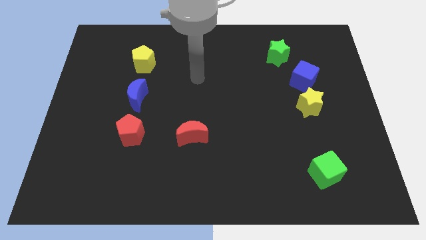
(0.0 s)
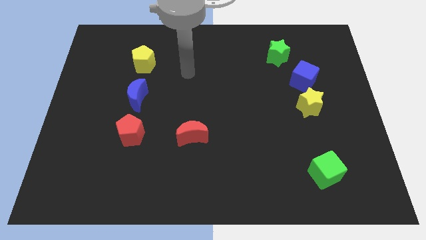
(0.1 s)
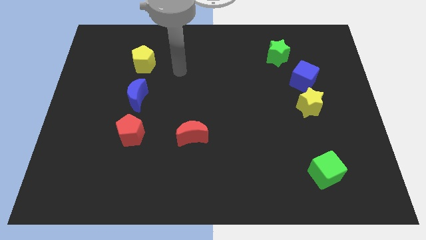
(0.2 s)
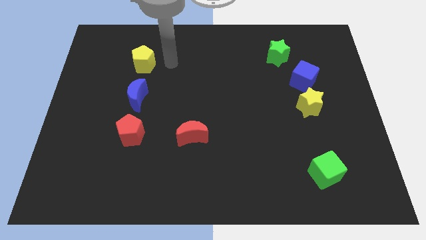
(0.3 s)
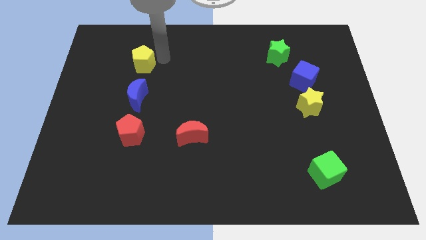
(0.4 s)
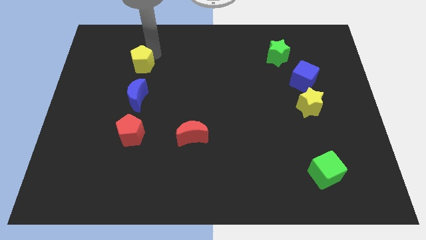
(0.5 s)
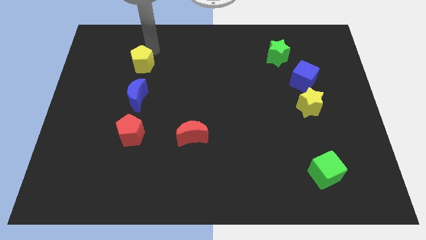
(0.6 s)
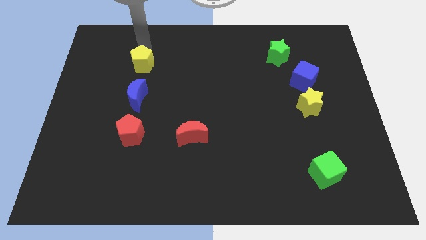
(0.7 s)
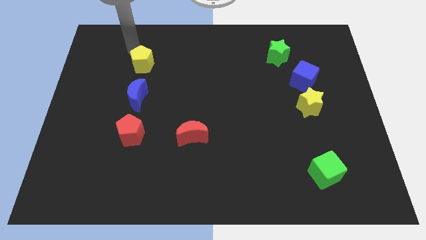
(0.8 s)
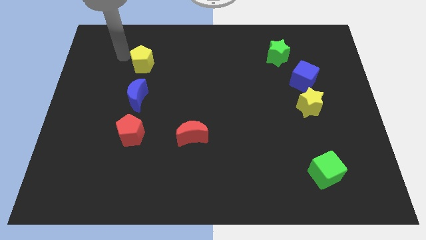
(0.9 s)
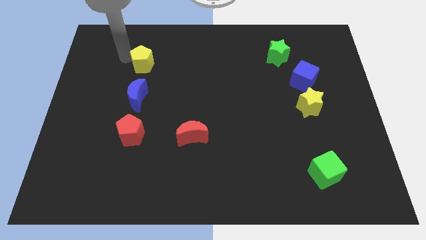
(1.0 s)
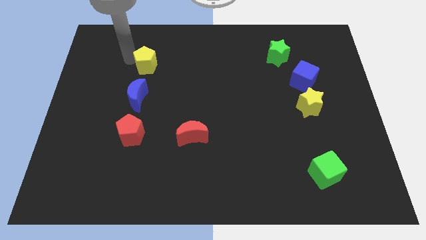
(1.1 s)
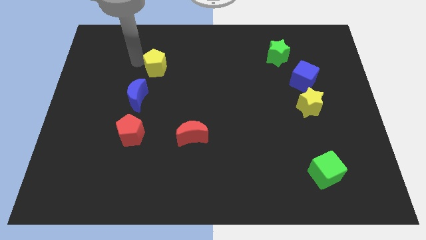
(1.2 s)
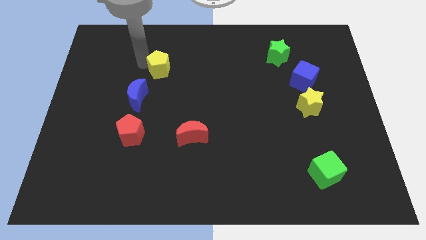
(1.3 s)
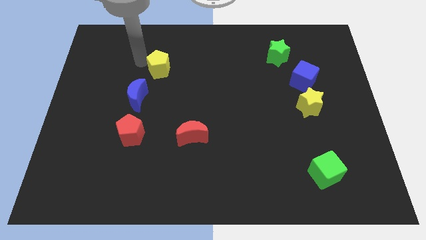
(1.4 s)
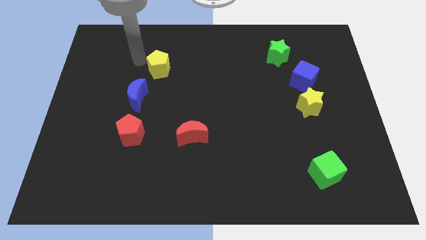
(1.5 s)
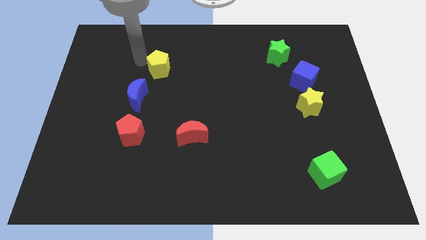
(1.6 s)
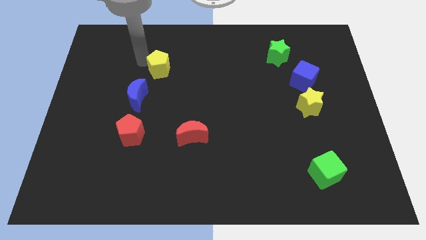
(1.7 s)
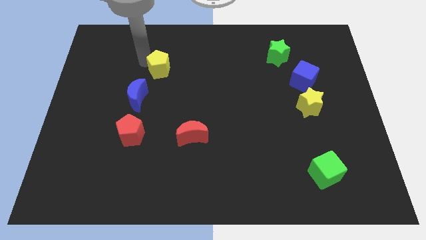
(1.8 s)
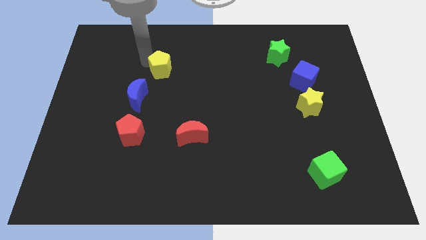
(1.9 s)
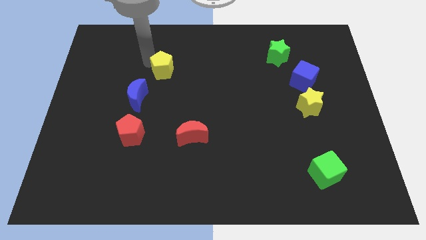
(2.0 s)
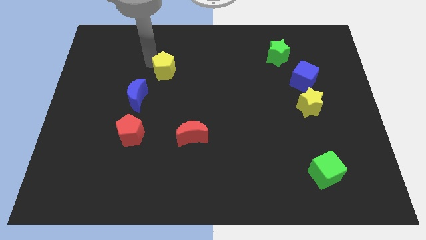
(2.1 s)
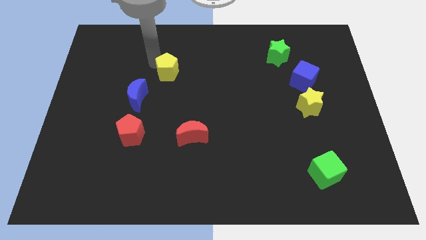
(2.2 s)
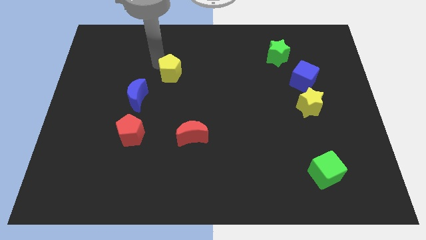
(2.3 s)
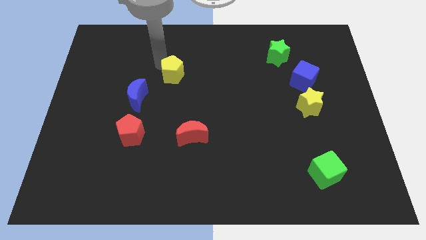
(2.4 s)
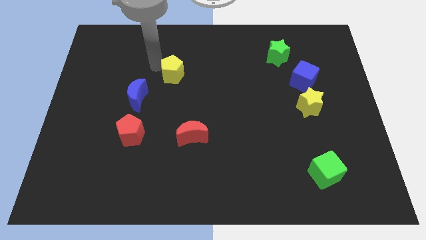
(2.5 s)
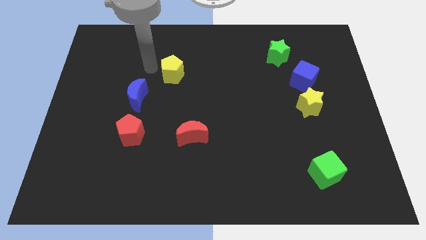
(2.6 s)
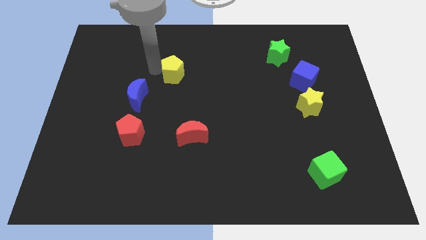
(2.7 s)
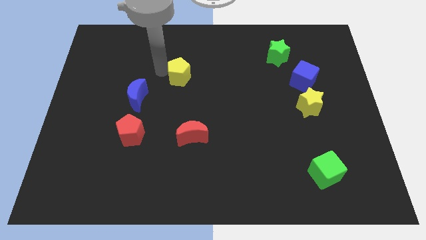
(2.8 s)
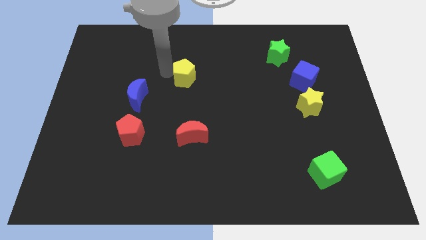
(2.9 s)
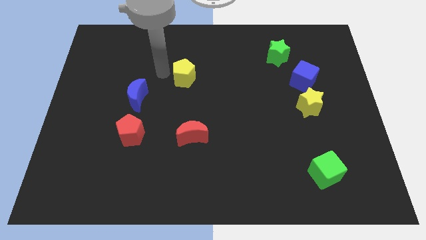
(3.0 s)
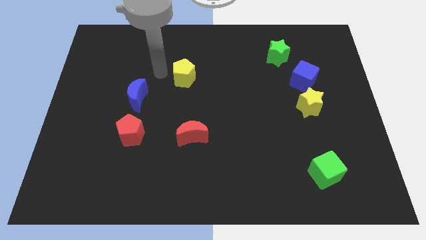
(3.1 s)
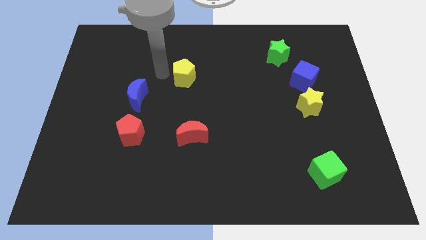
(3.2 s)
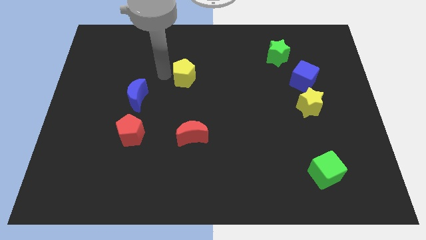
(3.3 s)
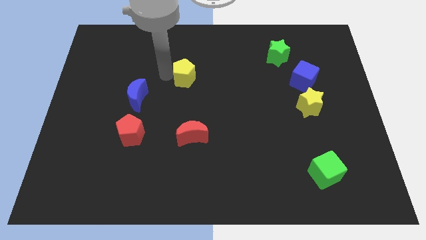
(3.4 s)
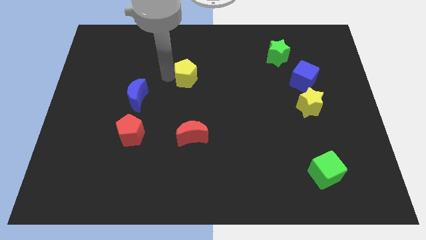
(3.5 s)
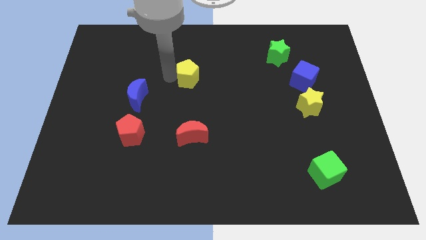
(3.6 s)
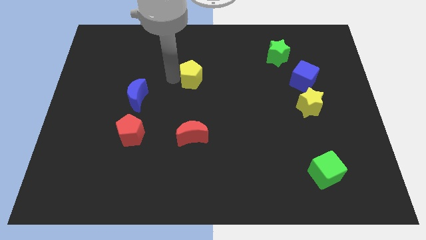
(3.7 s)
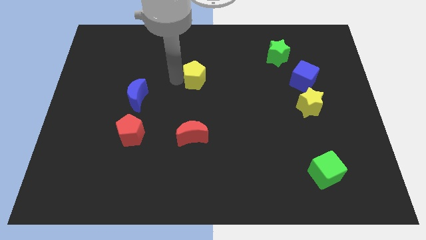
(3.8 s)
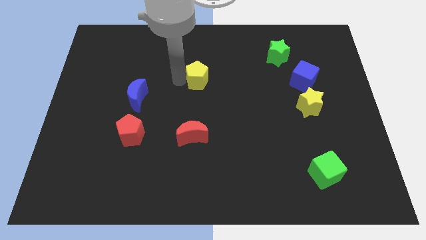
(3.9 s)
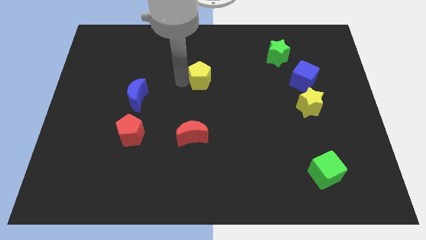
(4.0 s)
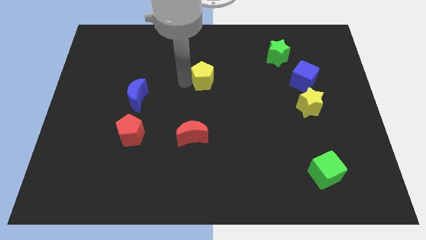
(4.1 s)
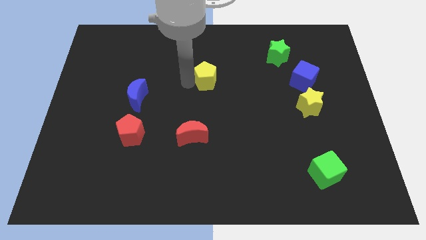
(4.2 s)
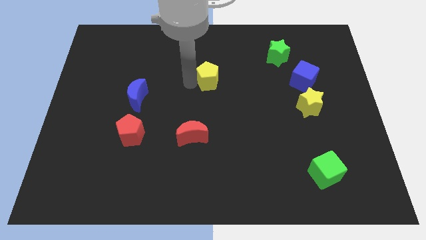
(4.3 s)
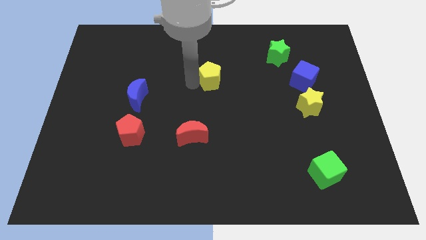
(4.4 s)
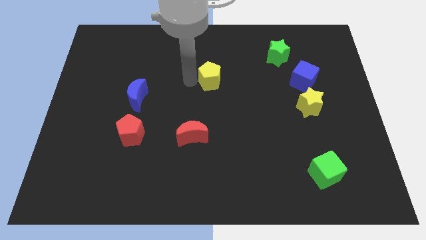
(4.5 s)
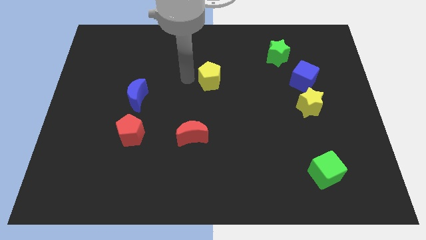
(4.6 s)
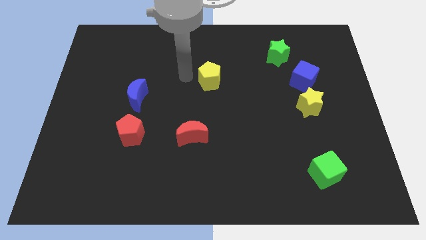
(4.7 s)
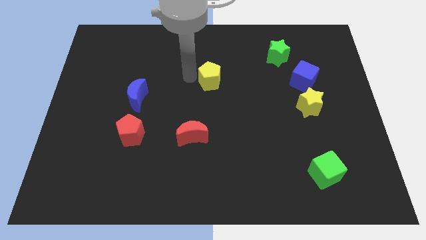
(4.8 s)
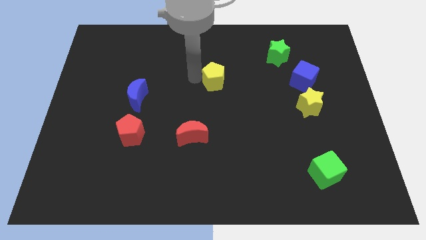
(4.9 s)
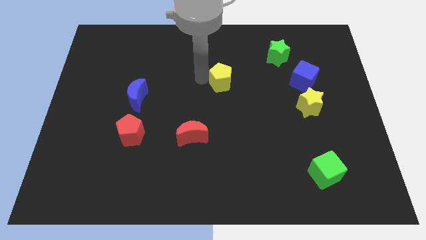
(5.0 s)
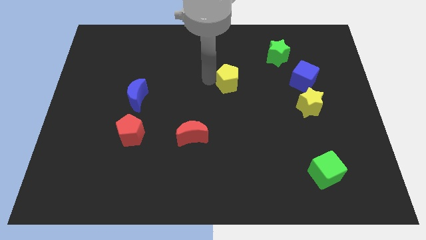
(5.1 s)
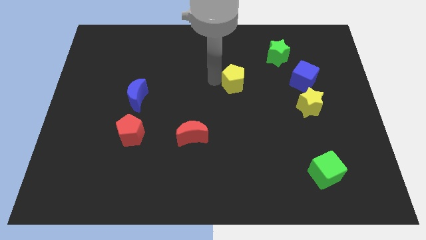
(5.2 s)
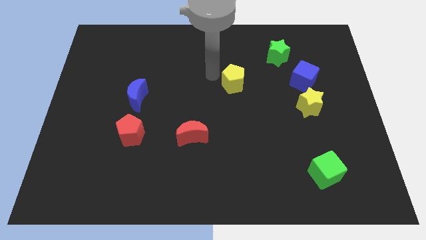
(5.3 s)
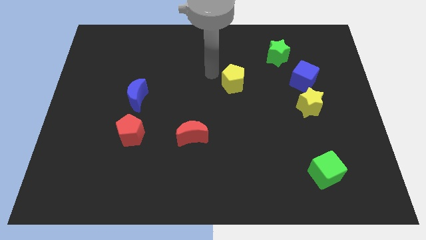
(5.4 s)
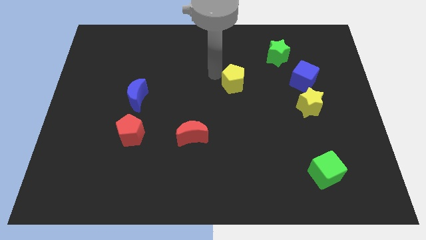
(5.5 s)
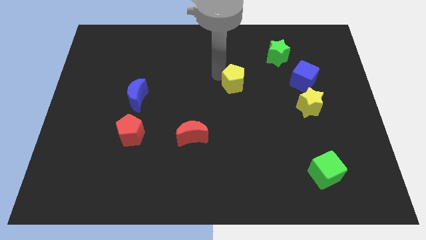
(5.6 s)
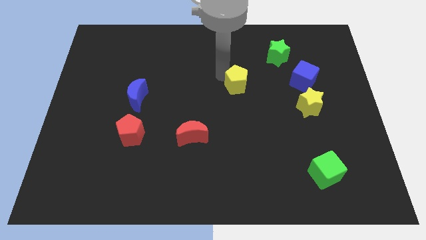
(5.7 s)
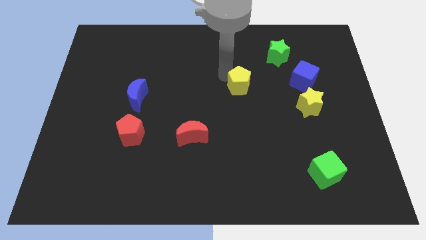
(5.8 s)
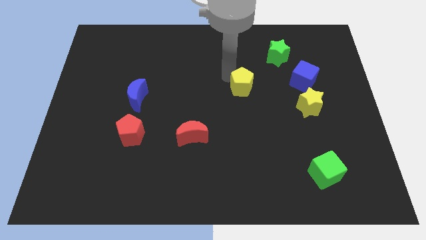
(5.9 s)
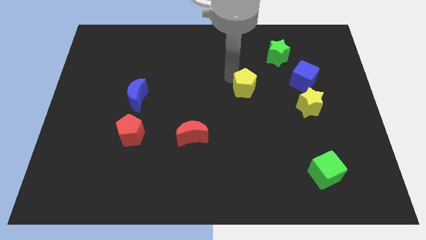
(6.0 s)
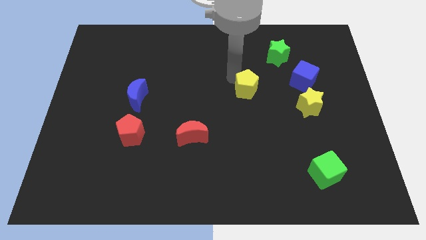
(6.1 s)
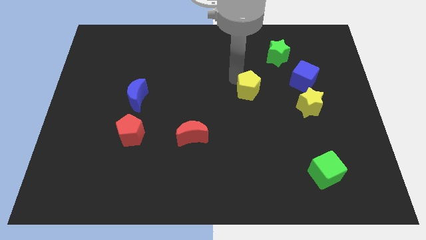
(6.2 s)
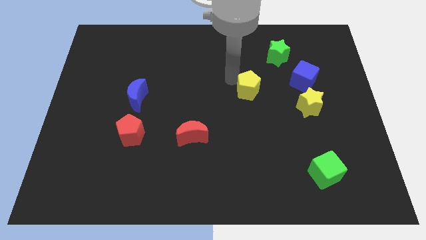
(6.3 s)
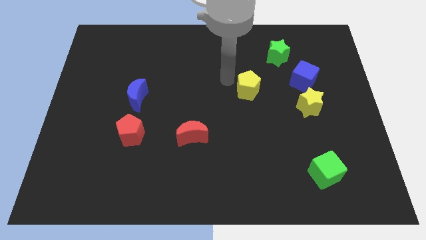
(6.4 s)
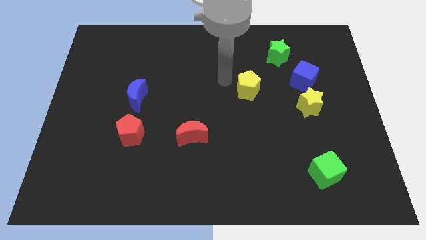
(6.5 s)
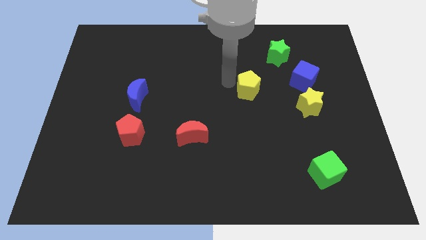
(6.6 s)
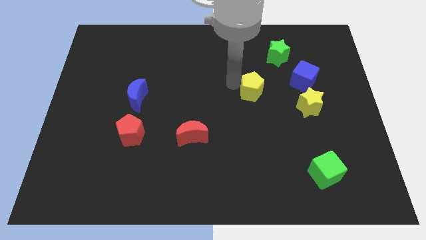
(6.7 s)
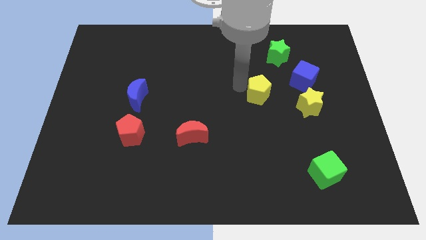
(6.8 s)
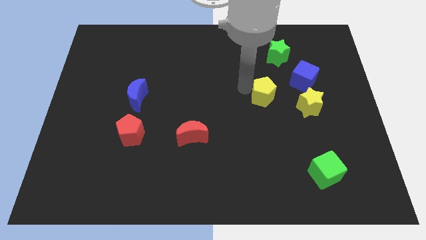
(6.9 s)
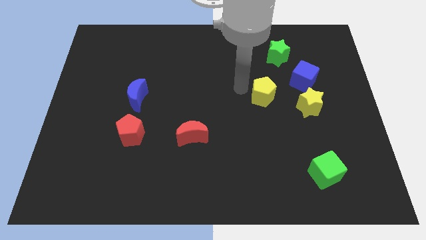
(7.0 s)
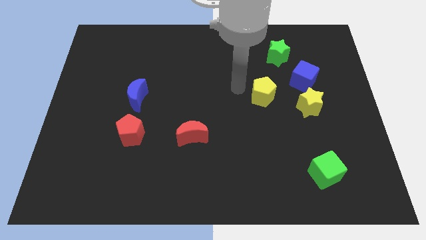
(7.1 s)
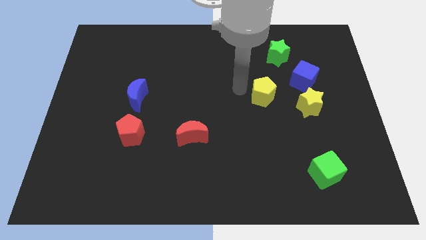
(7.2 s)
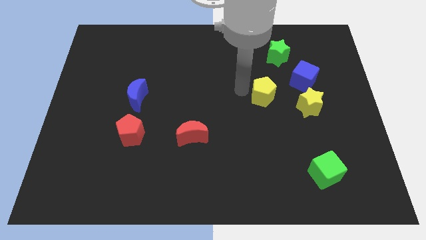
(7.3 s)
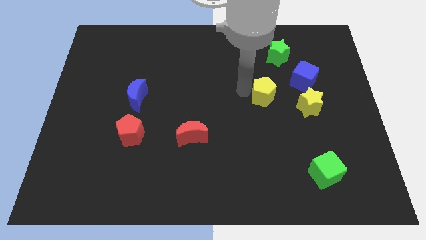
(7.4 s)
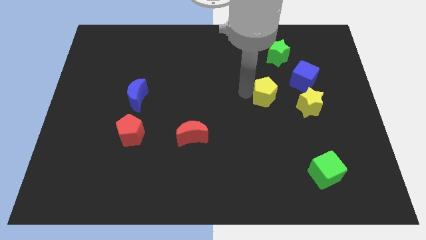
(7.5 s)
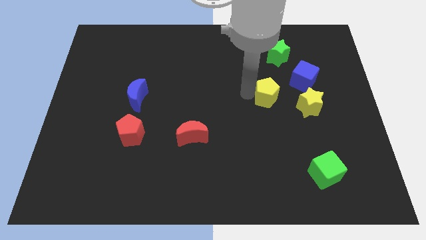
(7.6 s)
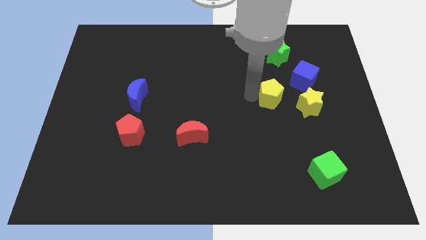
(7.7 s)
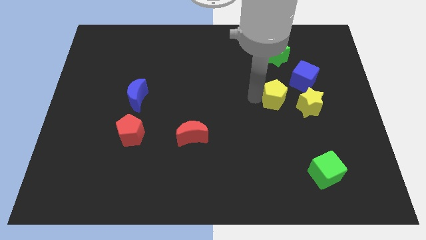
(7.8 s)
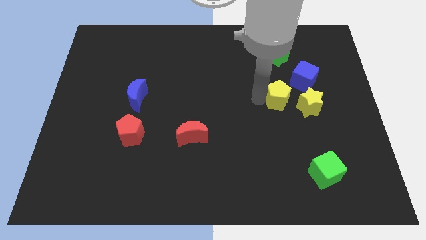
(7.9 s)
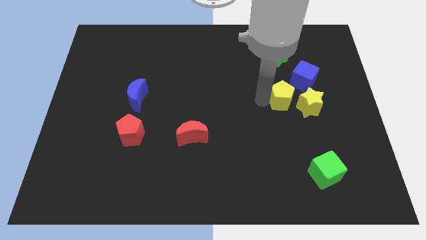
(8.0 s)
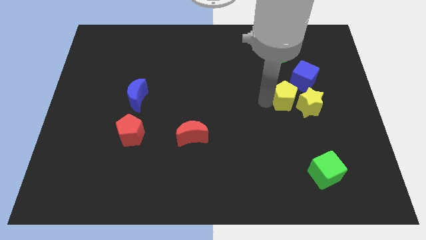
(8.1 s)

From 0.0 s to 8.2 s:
put the yellow pentagon to the yellow star
